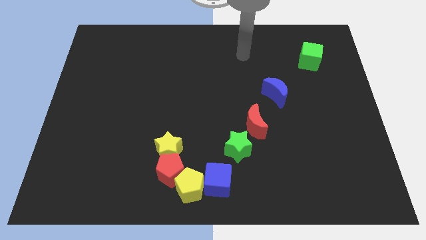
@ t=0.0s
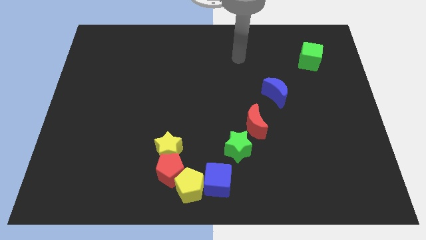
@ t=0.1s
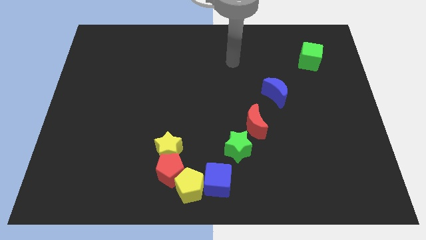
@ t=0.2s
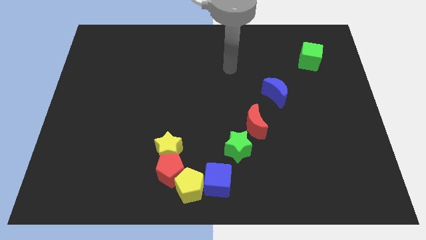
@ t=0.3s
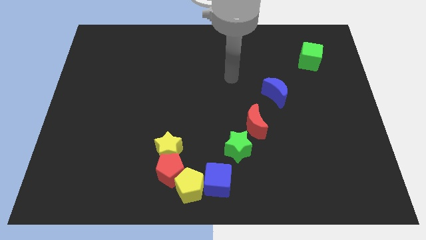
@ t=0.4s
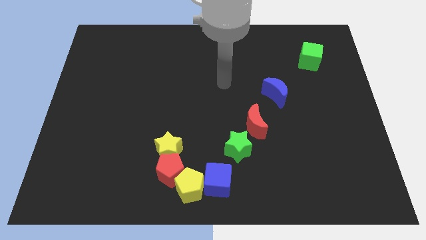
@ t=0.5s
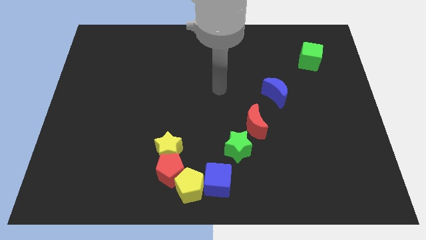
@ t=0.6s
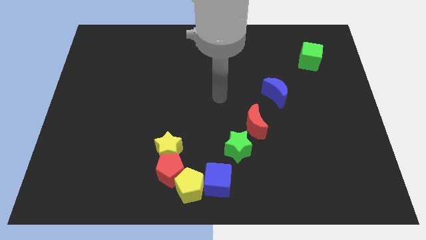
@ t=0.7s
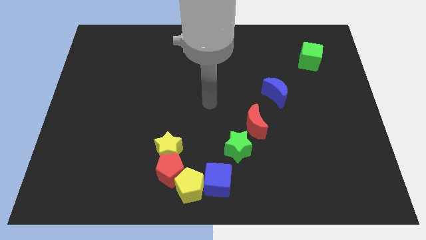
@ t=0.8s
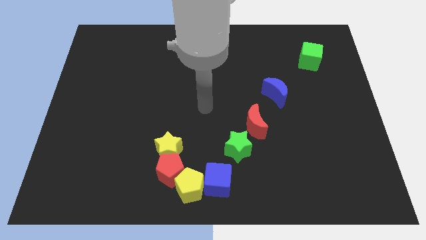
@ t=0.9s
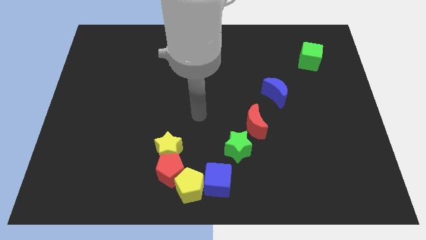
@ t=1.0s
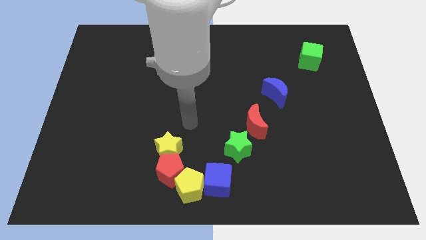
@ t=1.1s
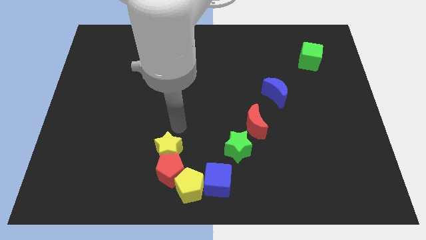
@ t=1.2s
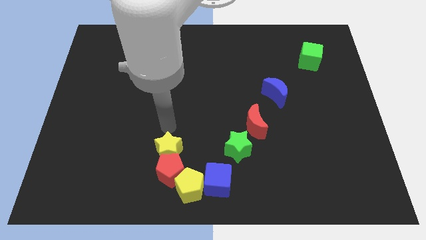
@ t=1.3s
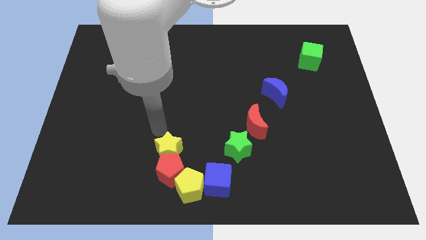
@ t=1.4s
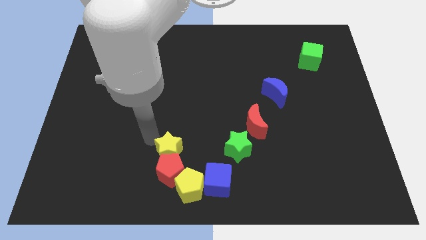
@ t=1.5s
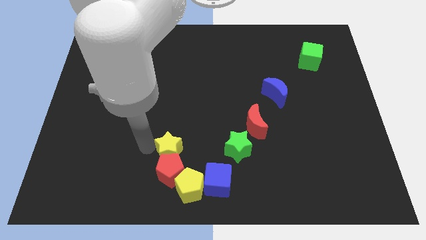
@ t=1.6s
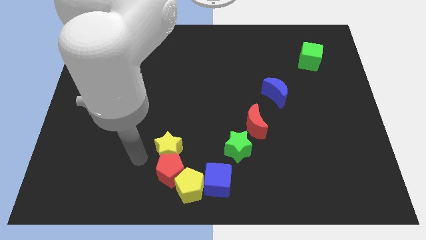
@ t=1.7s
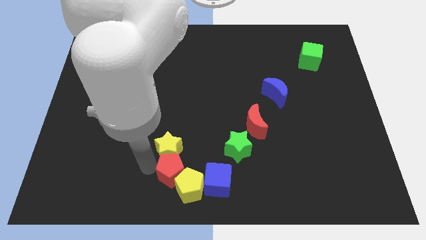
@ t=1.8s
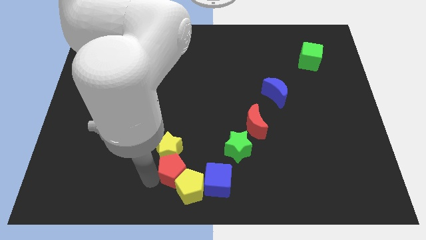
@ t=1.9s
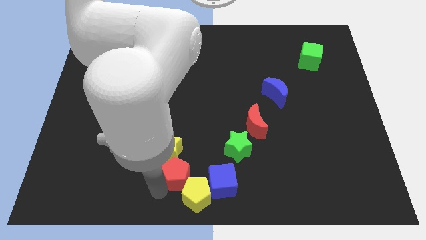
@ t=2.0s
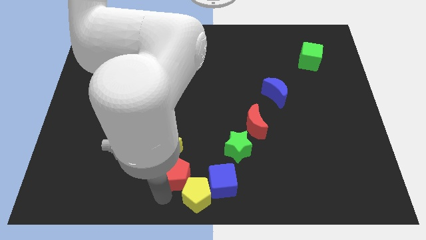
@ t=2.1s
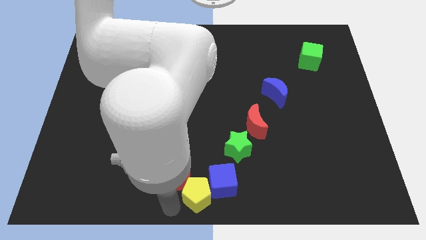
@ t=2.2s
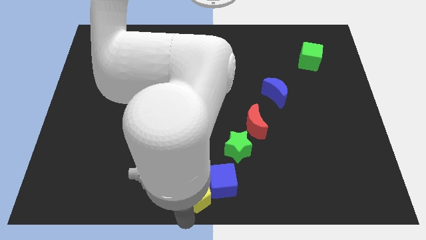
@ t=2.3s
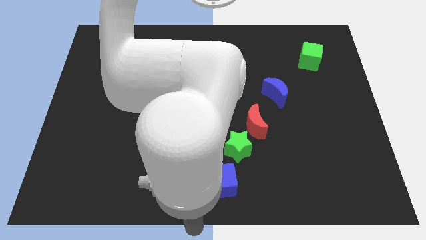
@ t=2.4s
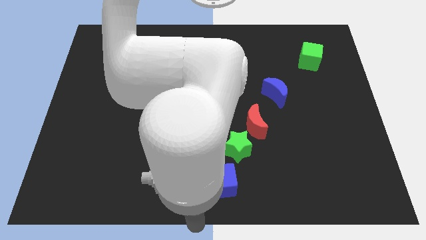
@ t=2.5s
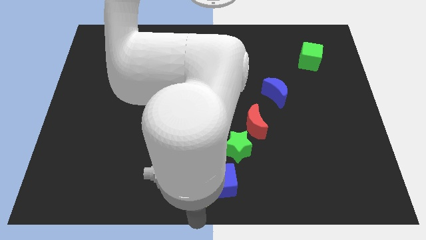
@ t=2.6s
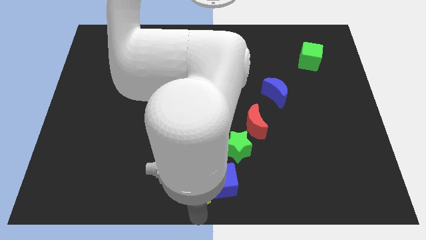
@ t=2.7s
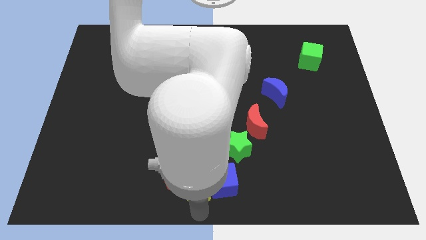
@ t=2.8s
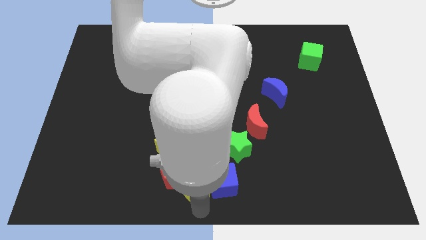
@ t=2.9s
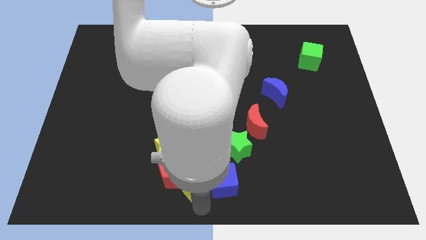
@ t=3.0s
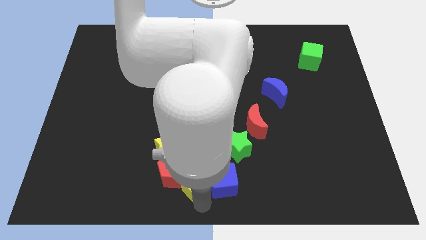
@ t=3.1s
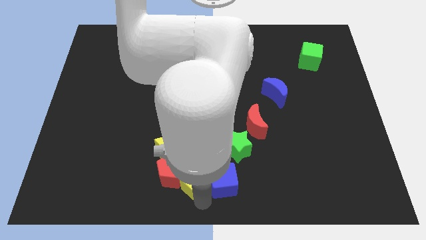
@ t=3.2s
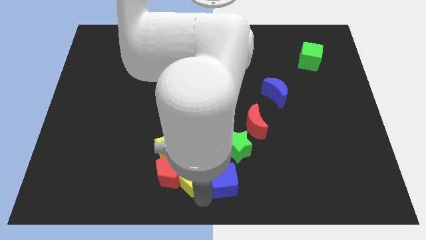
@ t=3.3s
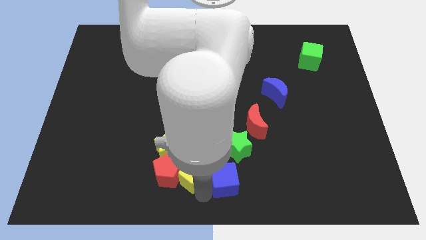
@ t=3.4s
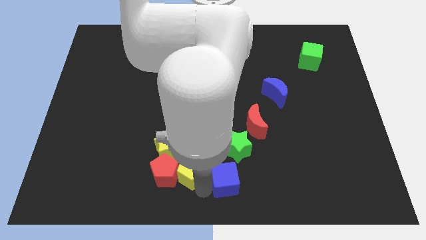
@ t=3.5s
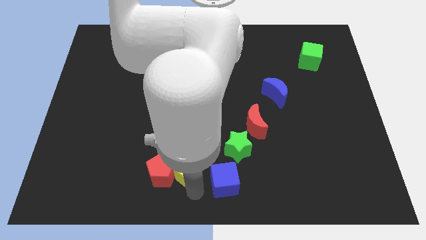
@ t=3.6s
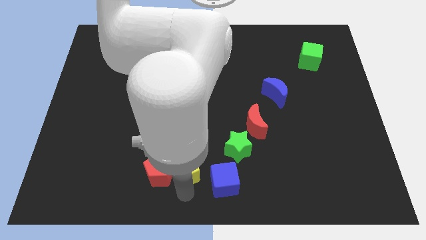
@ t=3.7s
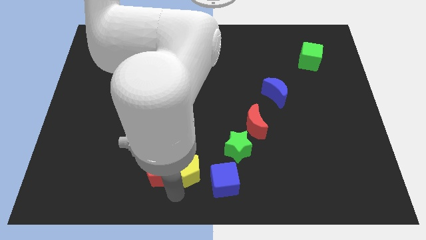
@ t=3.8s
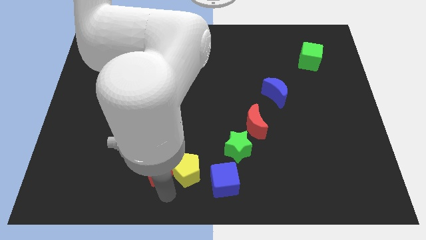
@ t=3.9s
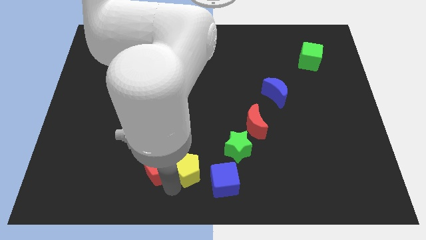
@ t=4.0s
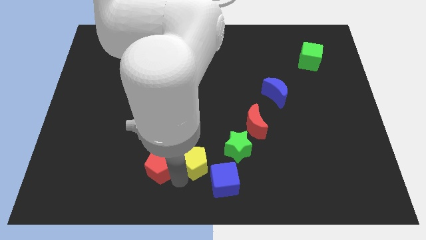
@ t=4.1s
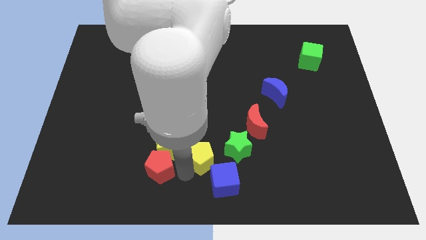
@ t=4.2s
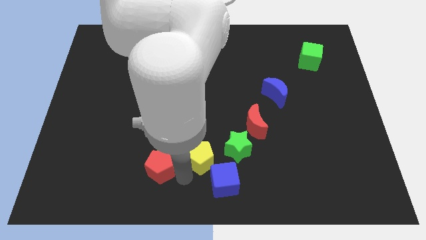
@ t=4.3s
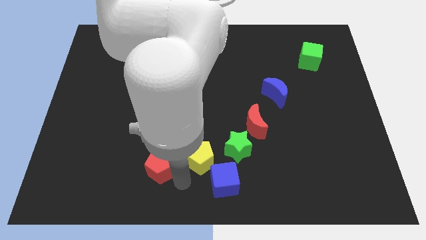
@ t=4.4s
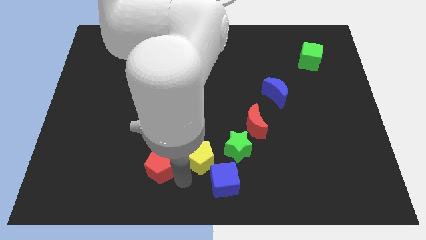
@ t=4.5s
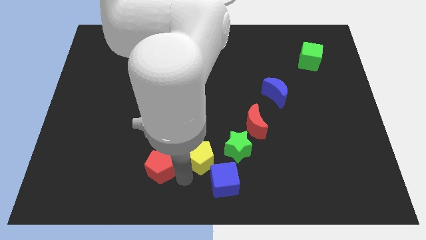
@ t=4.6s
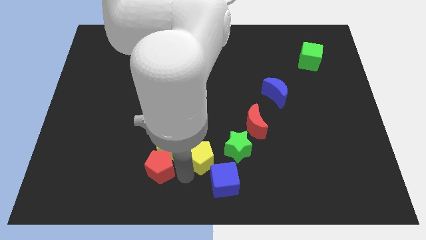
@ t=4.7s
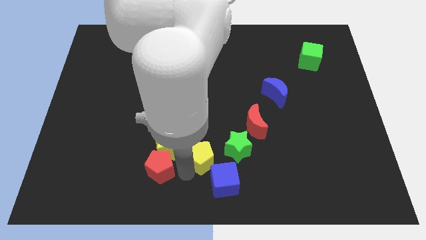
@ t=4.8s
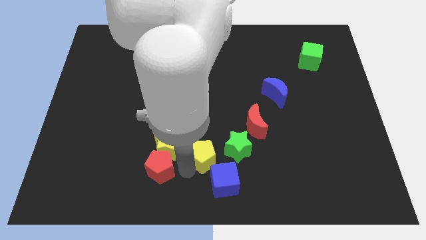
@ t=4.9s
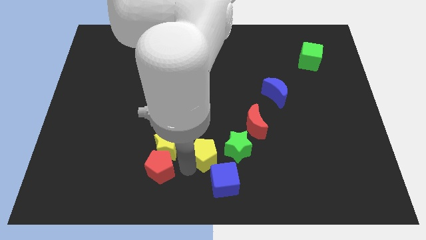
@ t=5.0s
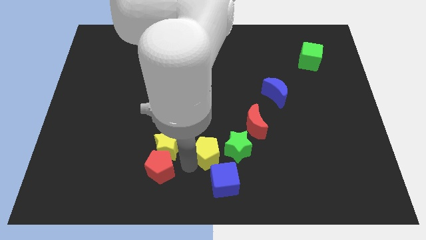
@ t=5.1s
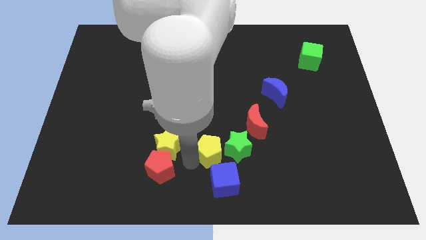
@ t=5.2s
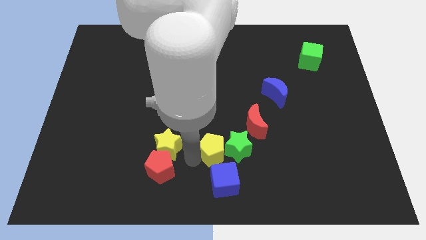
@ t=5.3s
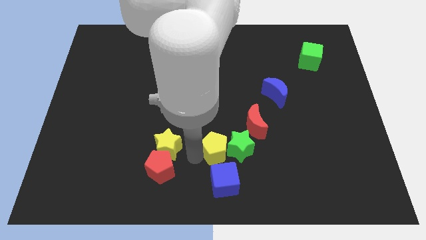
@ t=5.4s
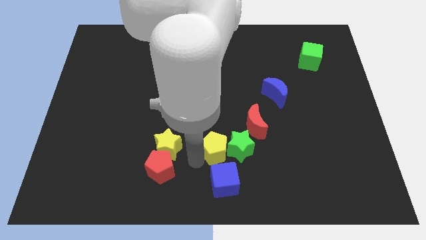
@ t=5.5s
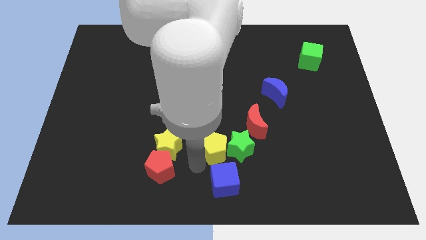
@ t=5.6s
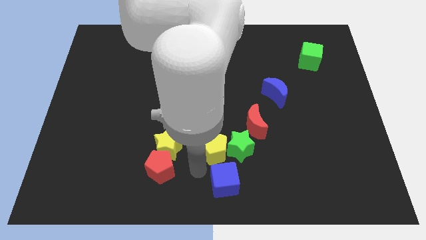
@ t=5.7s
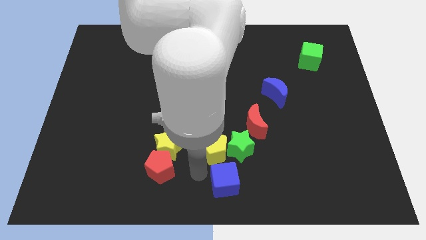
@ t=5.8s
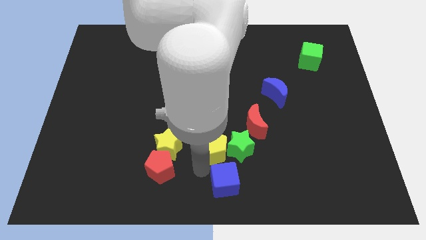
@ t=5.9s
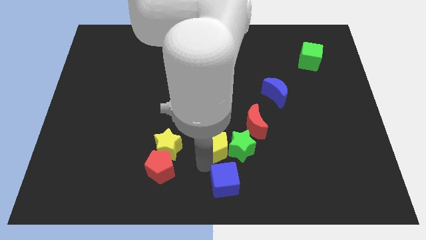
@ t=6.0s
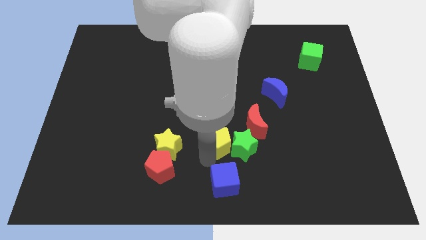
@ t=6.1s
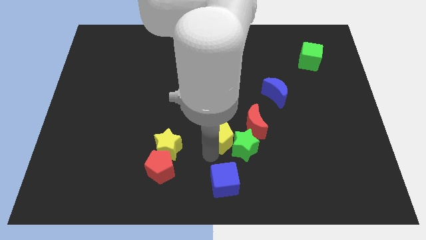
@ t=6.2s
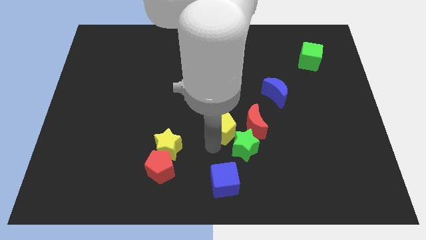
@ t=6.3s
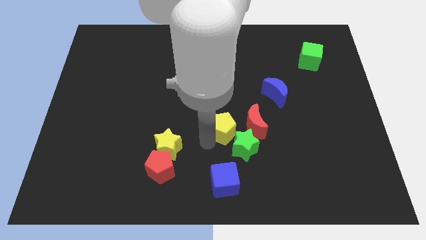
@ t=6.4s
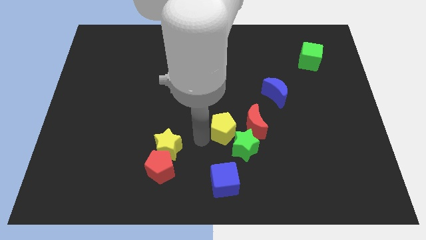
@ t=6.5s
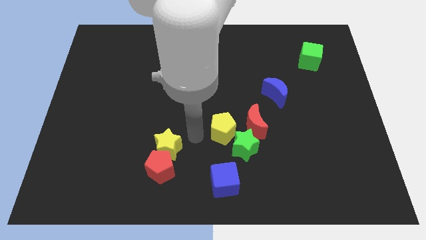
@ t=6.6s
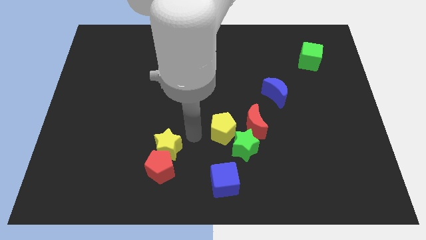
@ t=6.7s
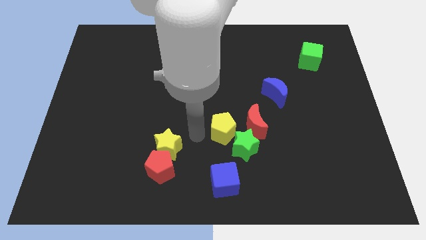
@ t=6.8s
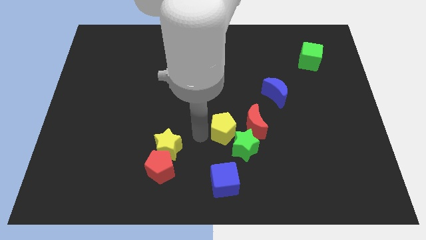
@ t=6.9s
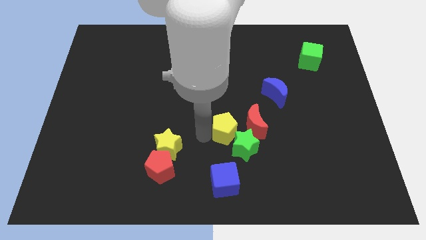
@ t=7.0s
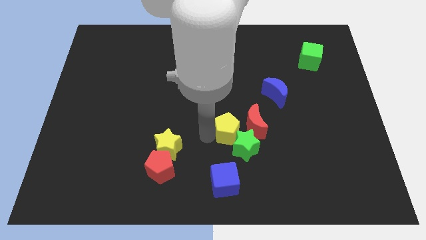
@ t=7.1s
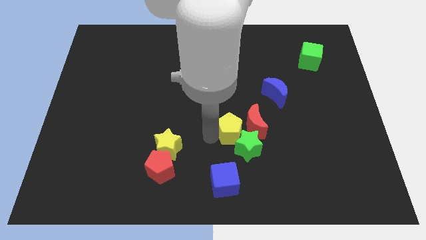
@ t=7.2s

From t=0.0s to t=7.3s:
push the yellow pentagon towards the red moon
